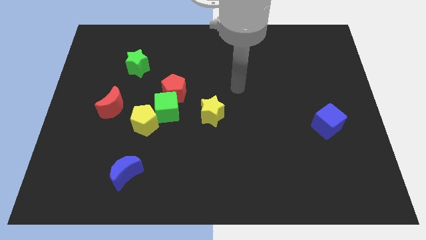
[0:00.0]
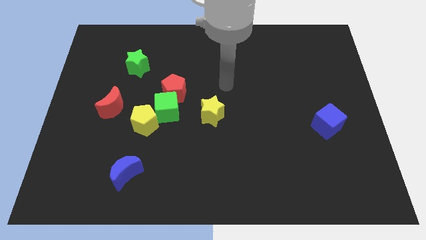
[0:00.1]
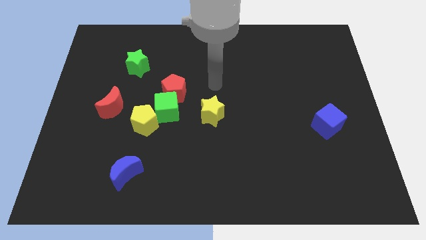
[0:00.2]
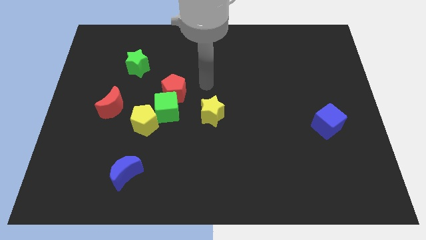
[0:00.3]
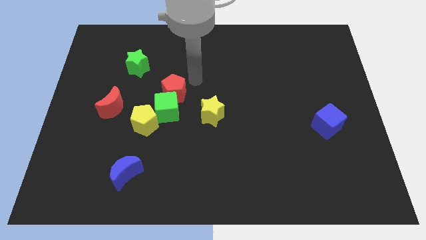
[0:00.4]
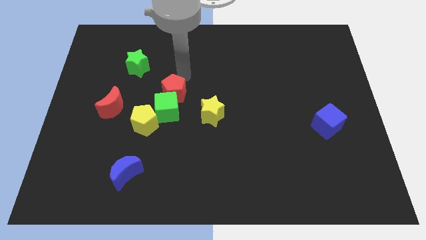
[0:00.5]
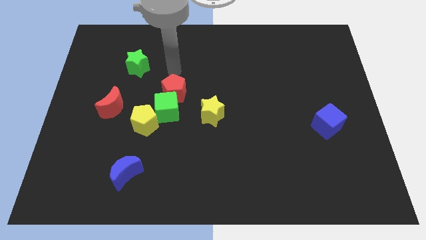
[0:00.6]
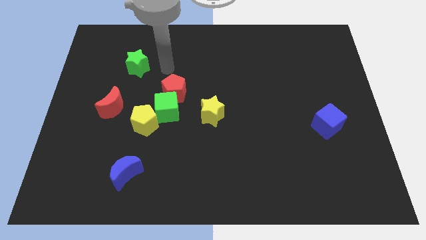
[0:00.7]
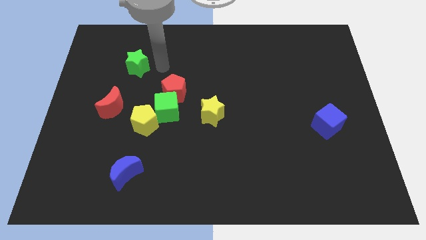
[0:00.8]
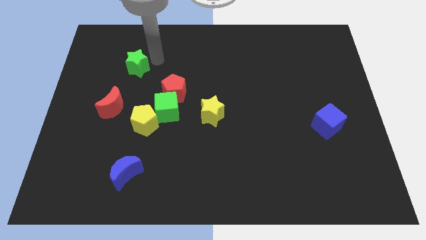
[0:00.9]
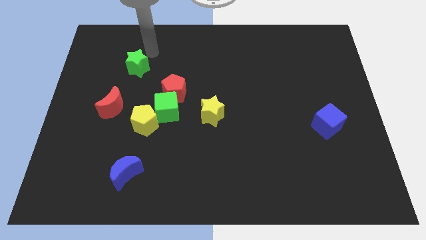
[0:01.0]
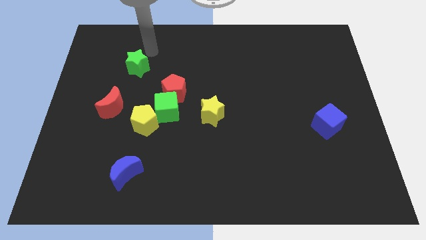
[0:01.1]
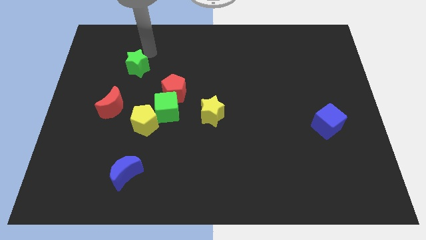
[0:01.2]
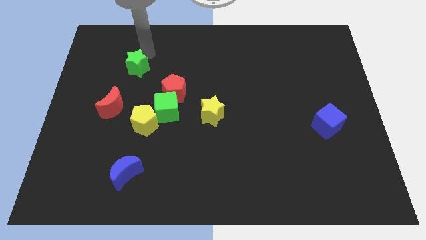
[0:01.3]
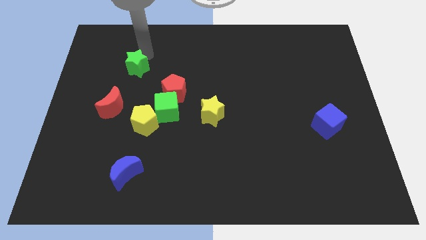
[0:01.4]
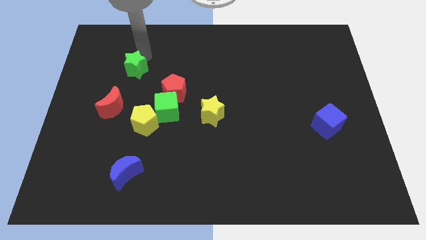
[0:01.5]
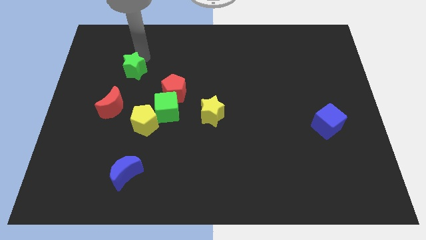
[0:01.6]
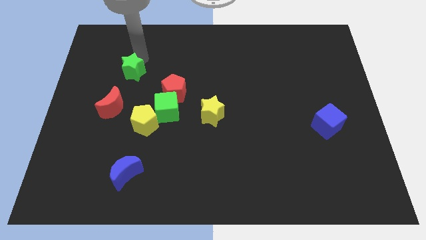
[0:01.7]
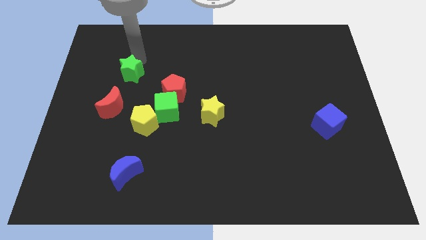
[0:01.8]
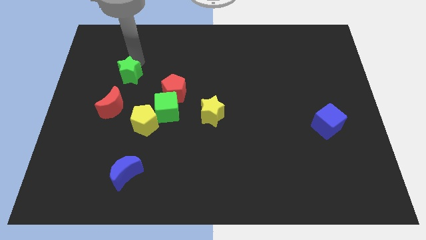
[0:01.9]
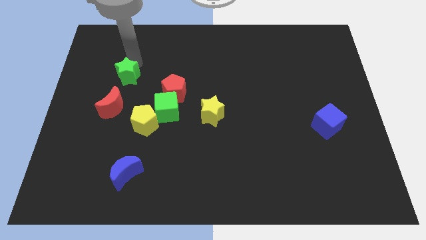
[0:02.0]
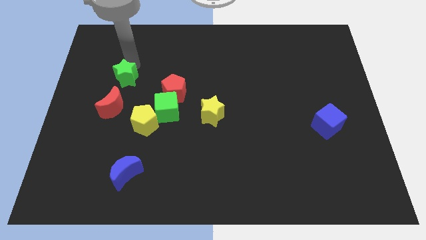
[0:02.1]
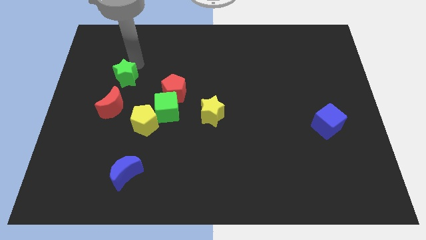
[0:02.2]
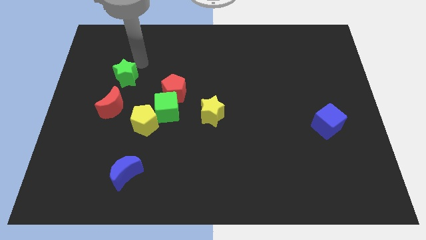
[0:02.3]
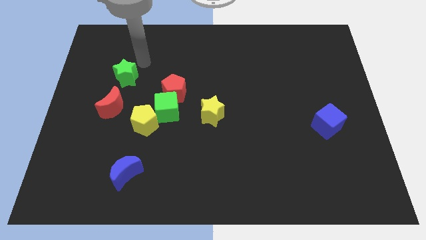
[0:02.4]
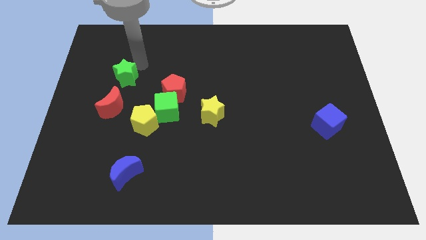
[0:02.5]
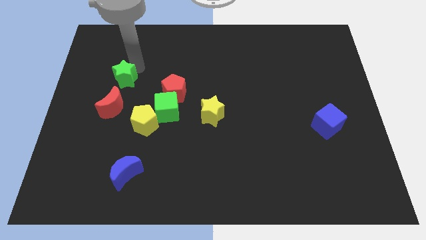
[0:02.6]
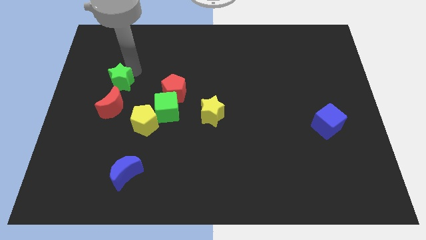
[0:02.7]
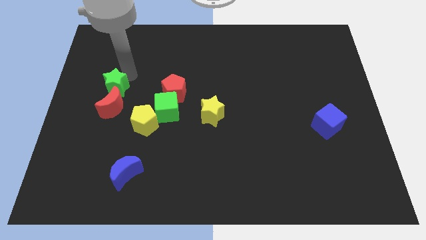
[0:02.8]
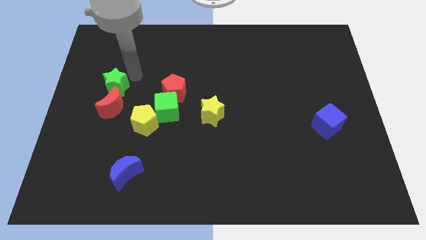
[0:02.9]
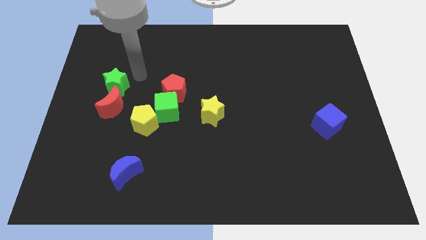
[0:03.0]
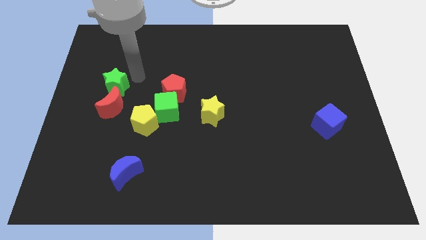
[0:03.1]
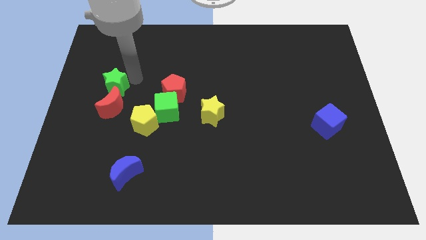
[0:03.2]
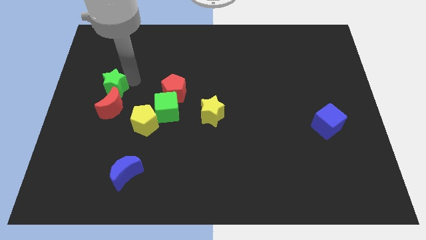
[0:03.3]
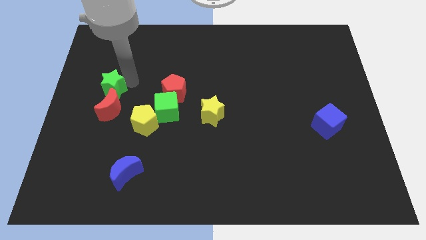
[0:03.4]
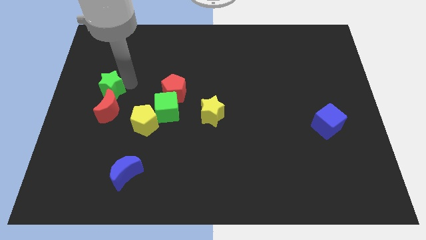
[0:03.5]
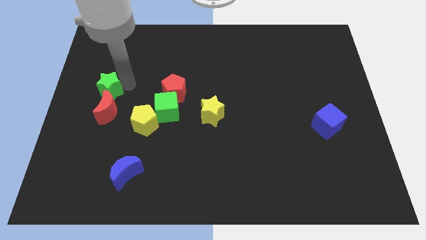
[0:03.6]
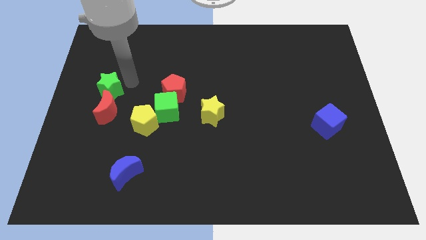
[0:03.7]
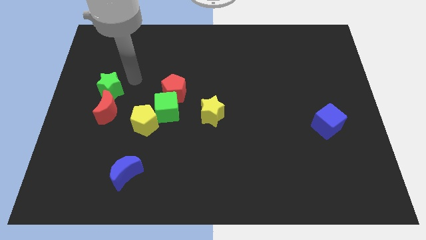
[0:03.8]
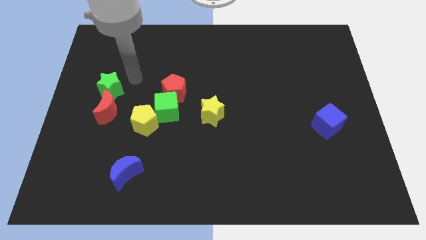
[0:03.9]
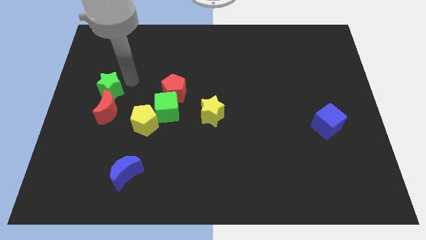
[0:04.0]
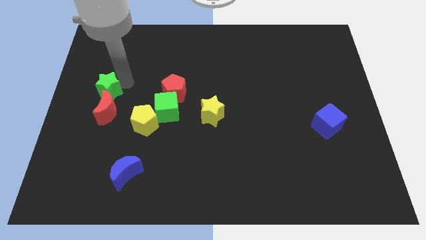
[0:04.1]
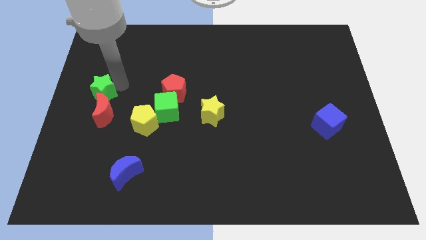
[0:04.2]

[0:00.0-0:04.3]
push the green star down a little

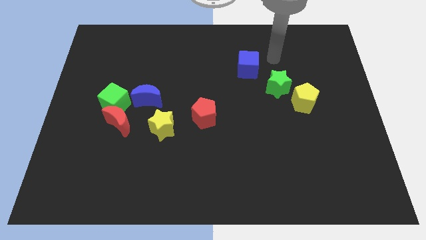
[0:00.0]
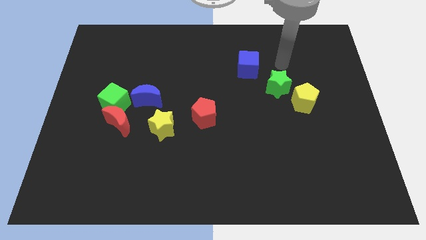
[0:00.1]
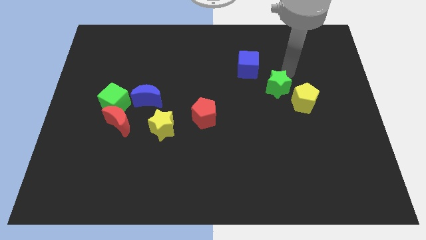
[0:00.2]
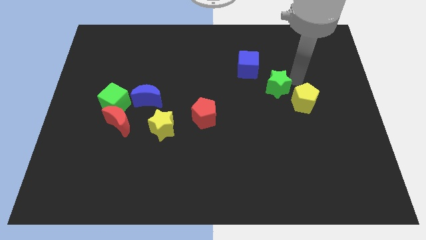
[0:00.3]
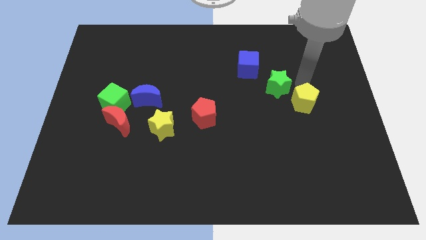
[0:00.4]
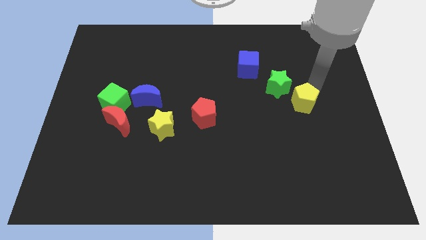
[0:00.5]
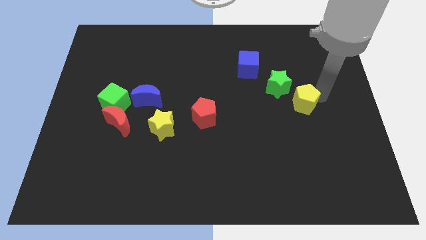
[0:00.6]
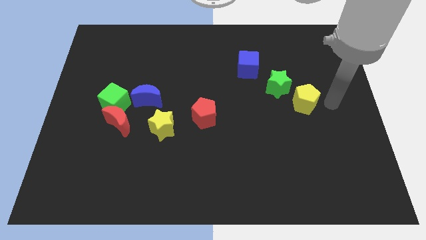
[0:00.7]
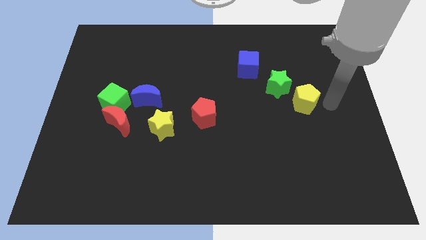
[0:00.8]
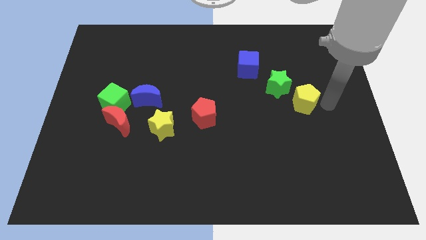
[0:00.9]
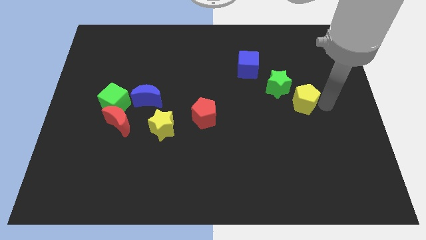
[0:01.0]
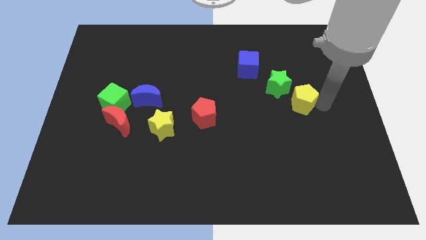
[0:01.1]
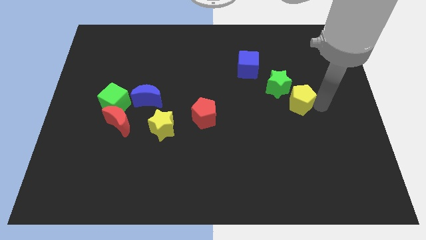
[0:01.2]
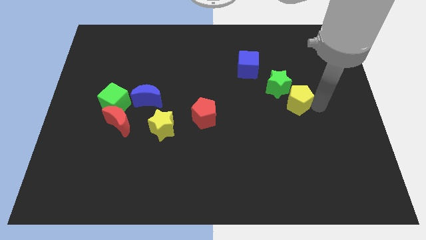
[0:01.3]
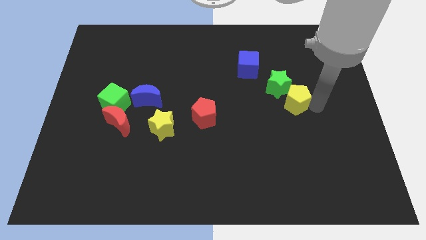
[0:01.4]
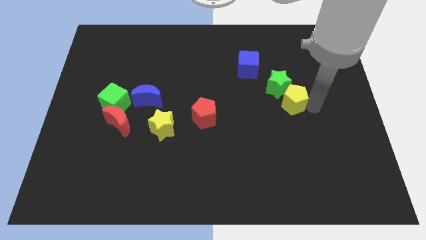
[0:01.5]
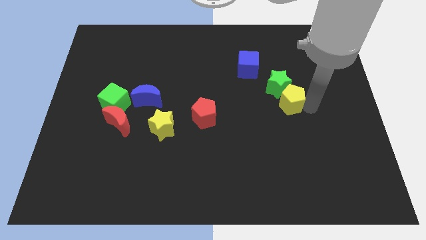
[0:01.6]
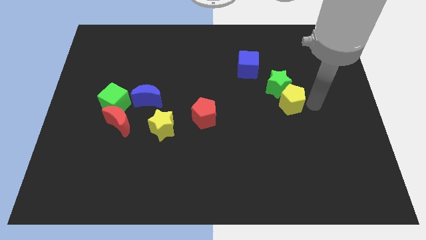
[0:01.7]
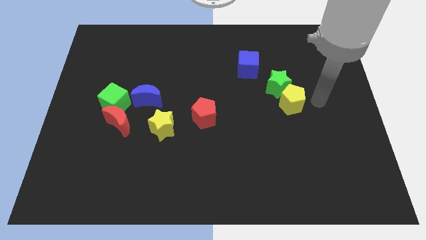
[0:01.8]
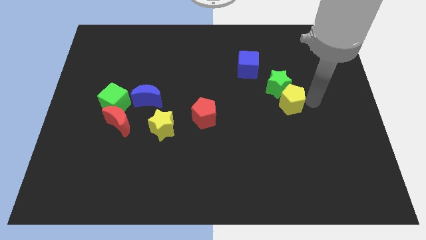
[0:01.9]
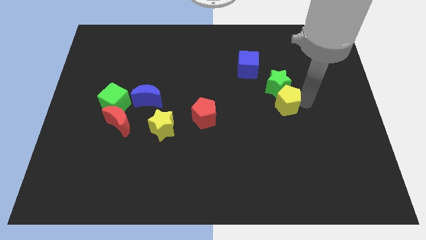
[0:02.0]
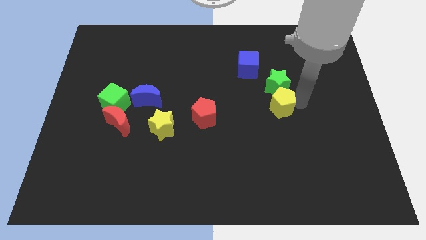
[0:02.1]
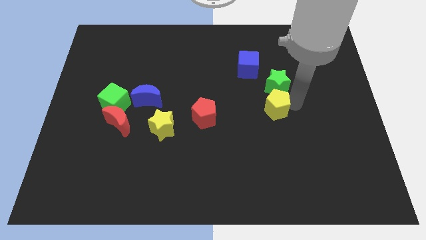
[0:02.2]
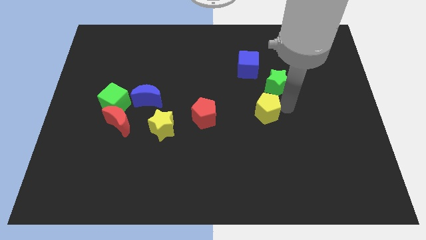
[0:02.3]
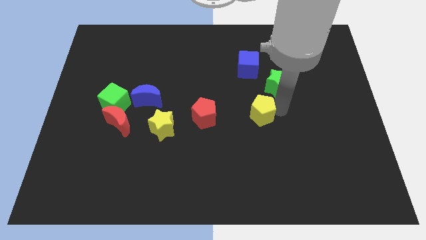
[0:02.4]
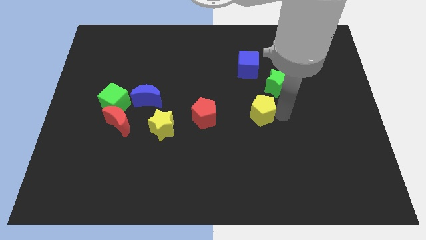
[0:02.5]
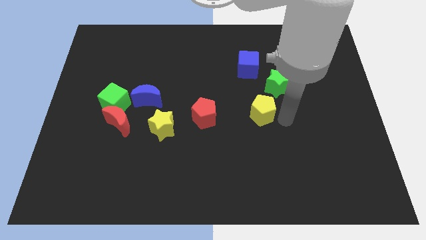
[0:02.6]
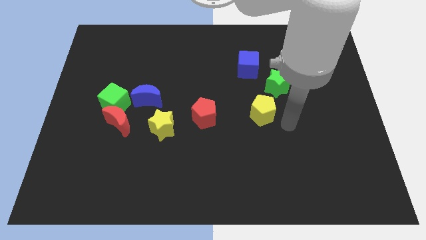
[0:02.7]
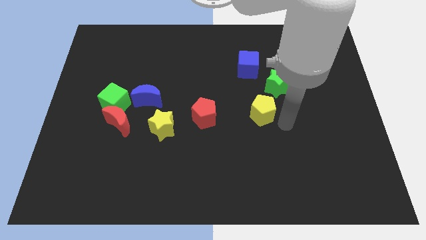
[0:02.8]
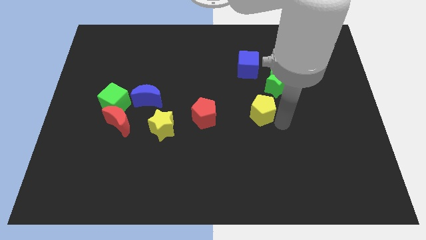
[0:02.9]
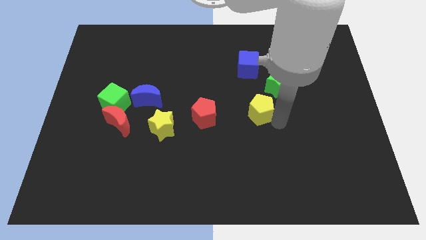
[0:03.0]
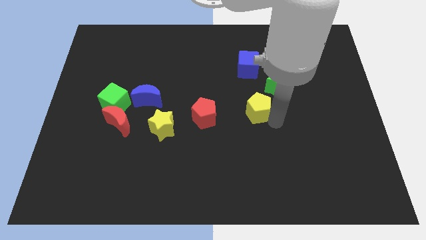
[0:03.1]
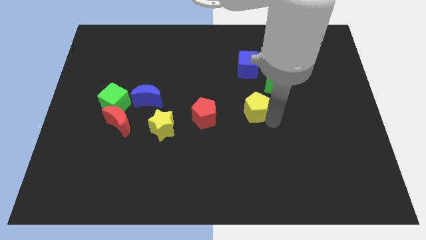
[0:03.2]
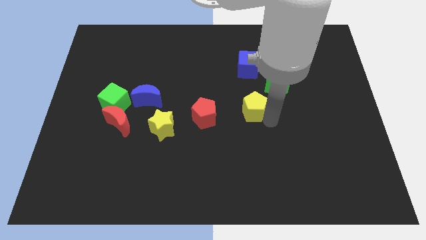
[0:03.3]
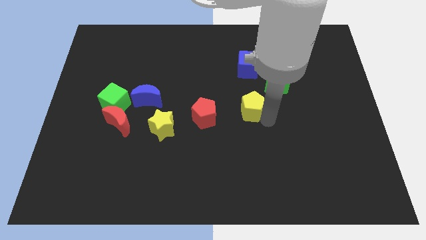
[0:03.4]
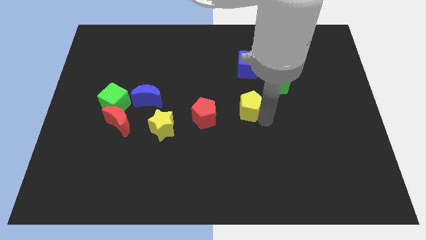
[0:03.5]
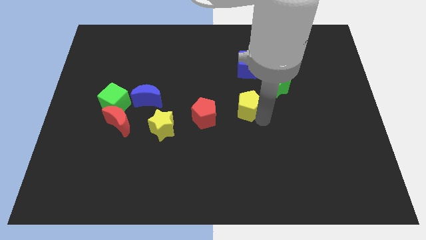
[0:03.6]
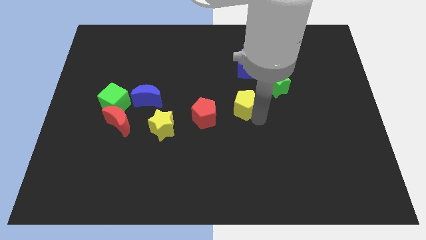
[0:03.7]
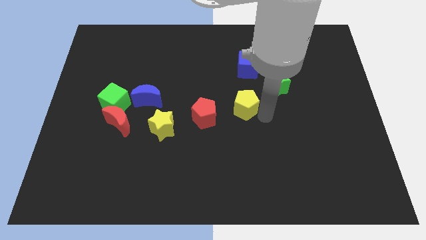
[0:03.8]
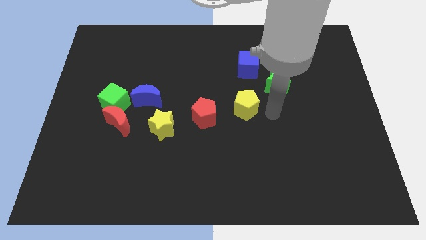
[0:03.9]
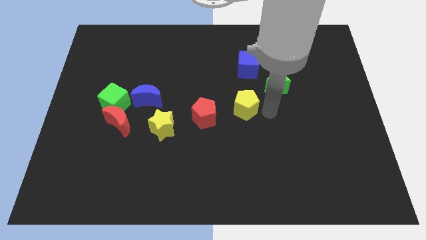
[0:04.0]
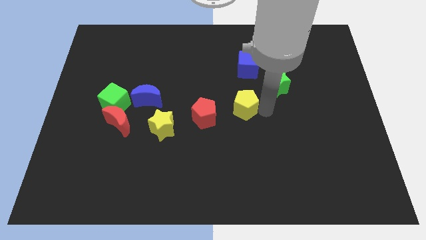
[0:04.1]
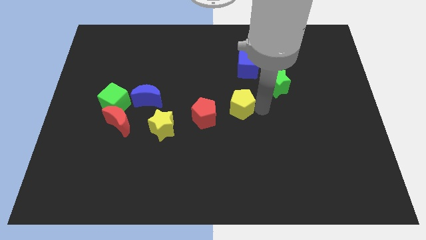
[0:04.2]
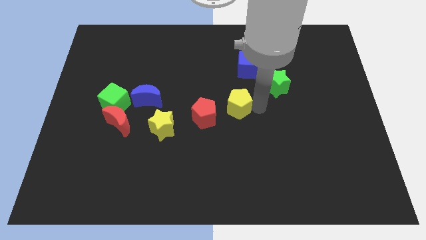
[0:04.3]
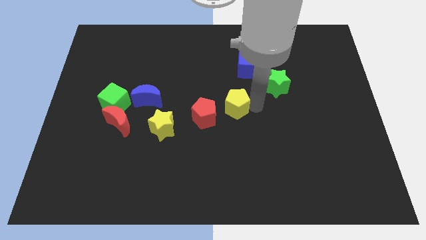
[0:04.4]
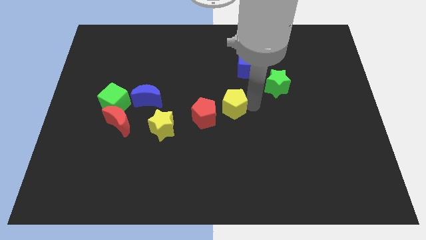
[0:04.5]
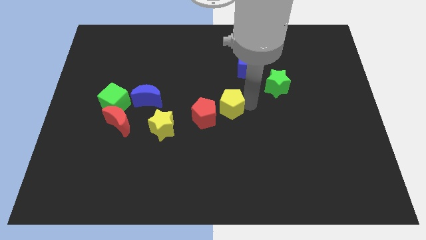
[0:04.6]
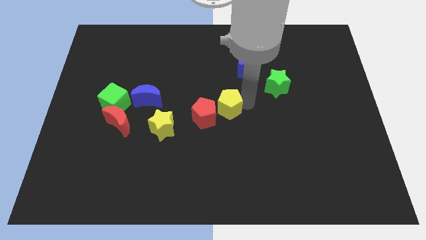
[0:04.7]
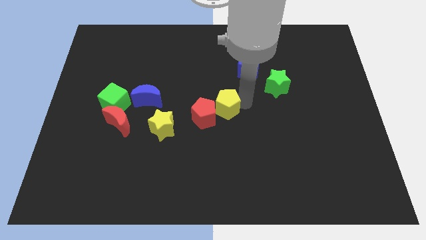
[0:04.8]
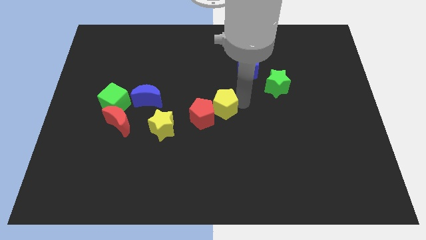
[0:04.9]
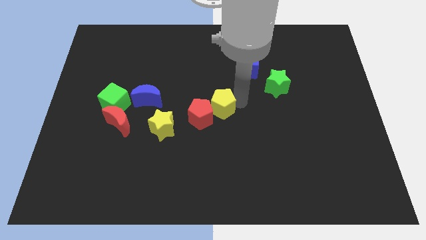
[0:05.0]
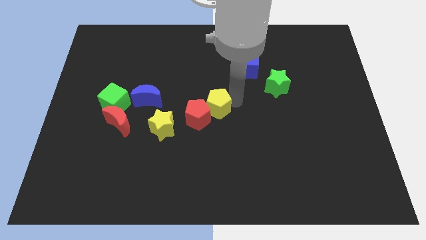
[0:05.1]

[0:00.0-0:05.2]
slide the yellow pentagon to the left
